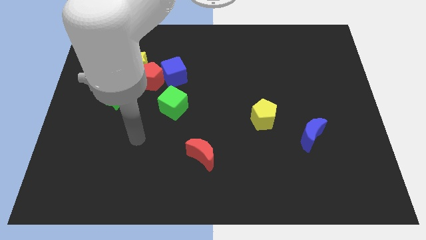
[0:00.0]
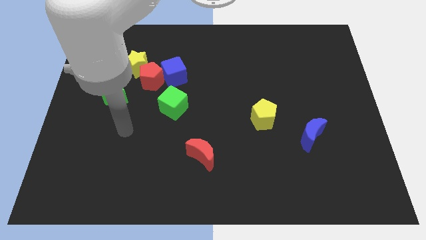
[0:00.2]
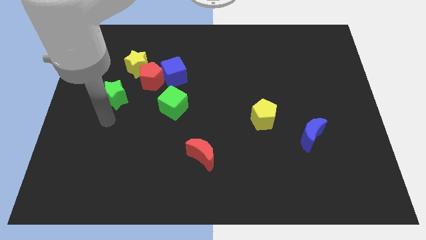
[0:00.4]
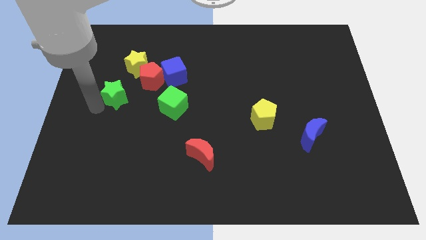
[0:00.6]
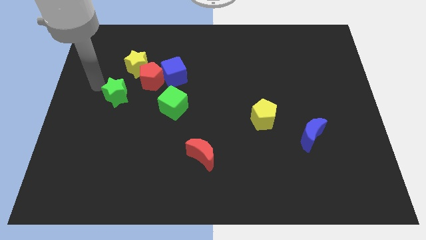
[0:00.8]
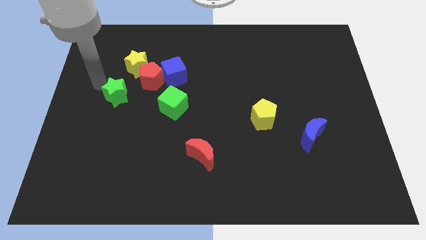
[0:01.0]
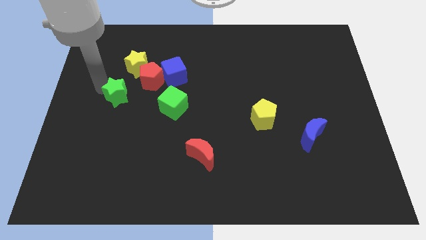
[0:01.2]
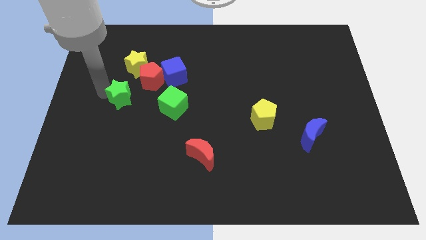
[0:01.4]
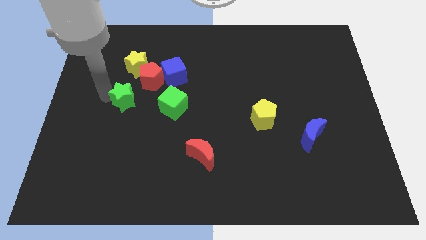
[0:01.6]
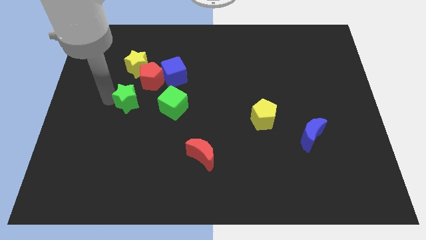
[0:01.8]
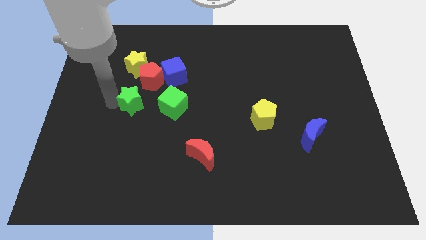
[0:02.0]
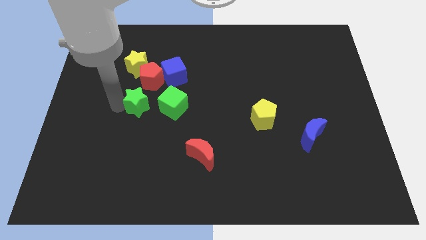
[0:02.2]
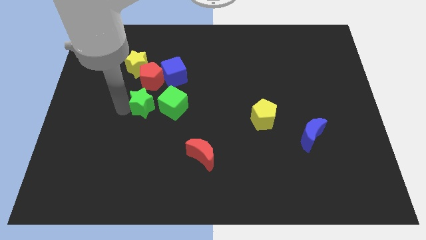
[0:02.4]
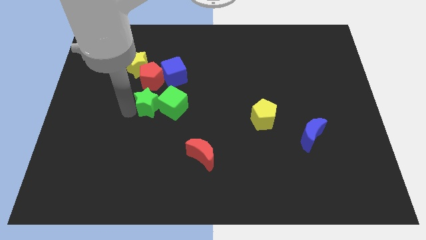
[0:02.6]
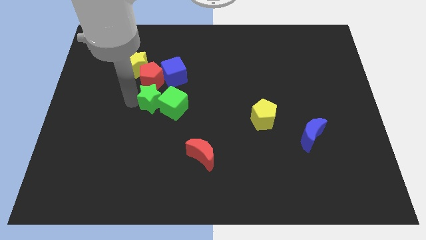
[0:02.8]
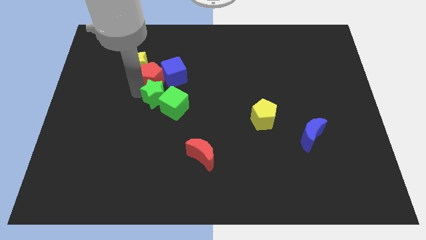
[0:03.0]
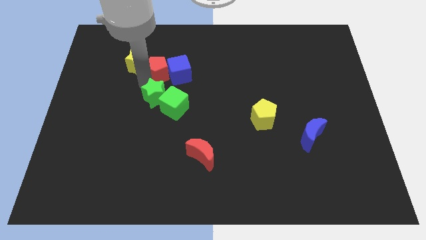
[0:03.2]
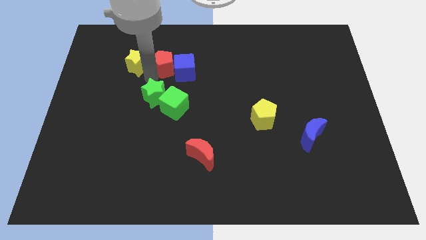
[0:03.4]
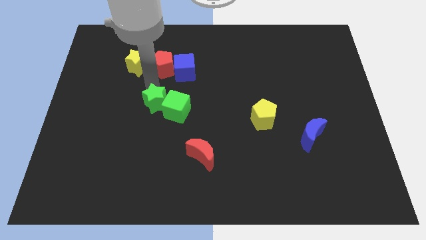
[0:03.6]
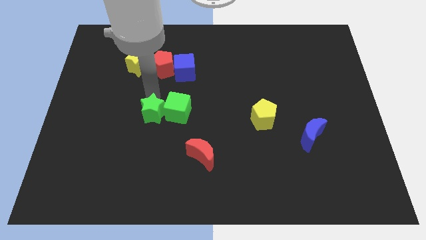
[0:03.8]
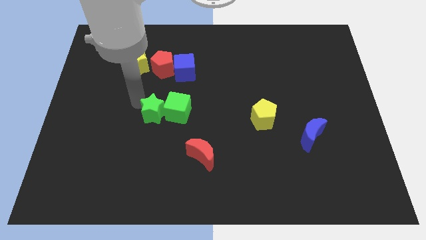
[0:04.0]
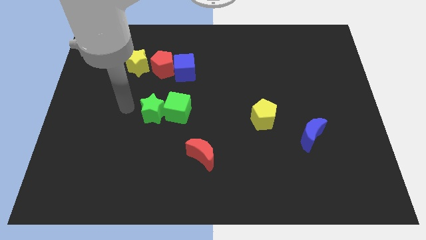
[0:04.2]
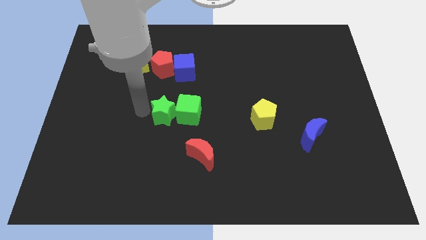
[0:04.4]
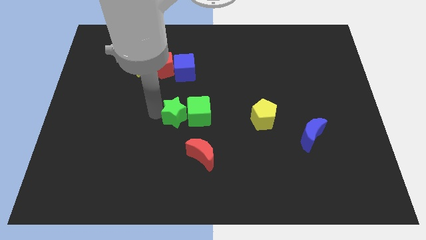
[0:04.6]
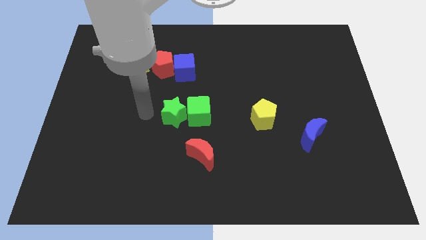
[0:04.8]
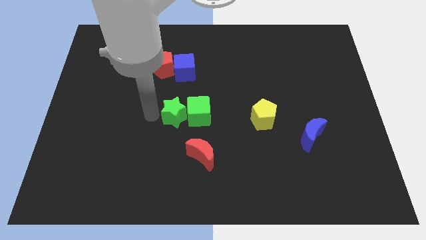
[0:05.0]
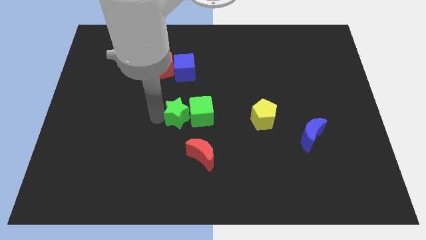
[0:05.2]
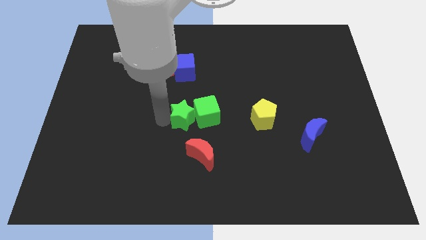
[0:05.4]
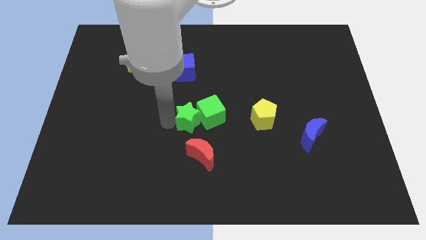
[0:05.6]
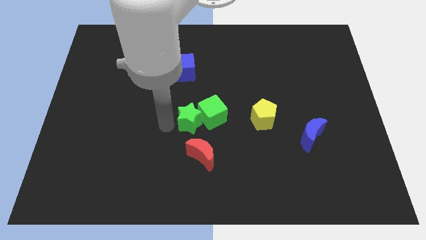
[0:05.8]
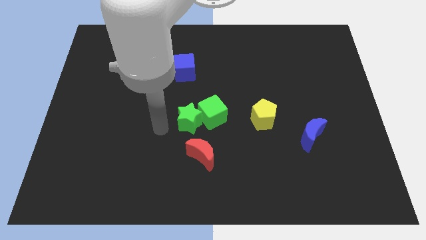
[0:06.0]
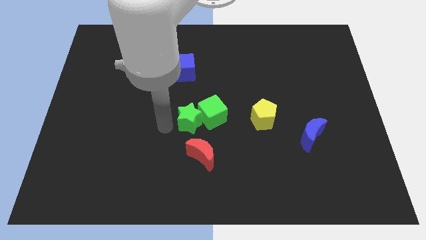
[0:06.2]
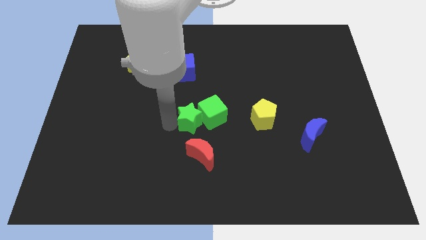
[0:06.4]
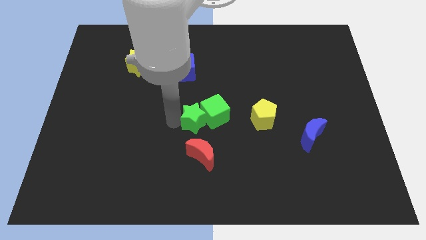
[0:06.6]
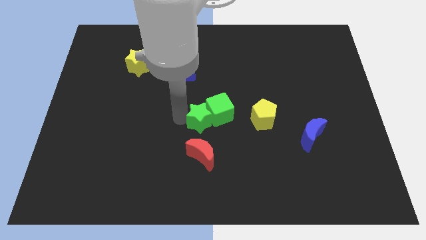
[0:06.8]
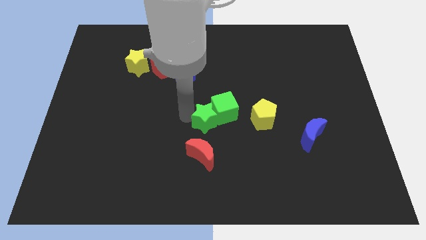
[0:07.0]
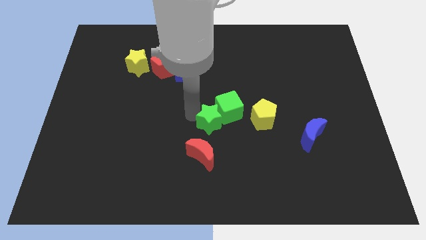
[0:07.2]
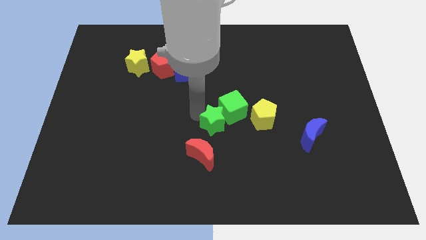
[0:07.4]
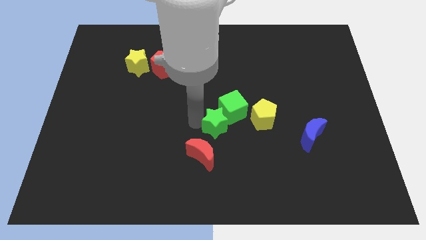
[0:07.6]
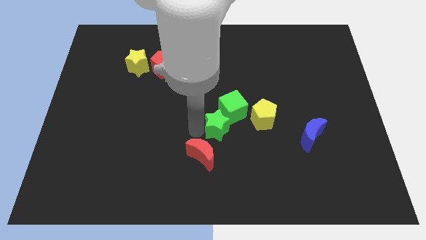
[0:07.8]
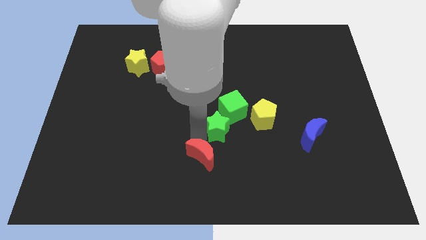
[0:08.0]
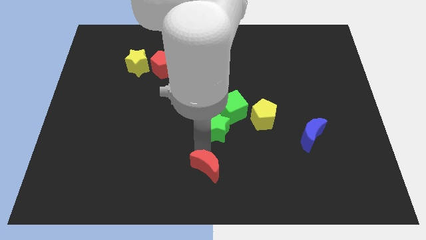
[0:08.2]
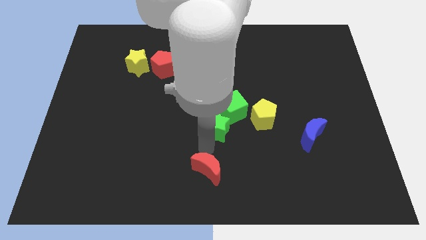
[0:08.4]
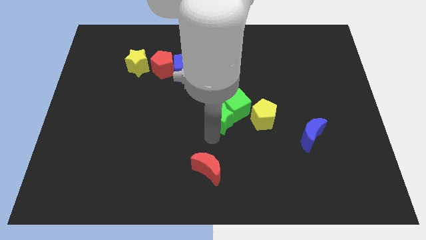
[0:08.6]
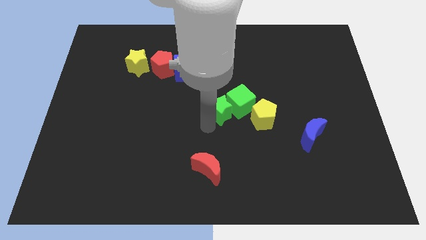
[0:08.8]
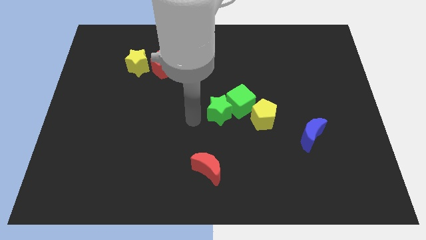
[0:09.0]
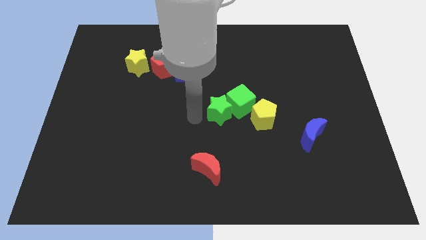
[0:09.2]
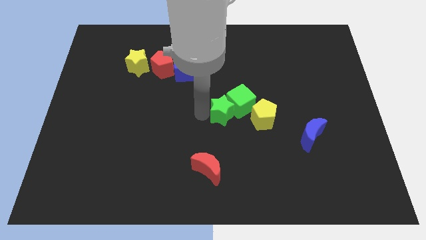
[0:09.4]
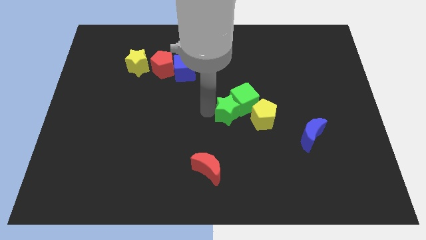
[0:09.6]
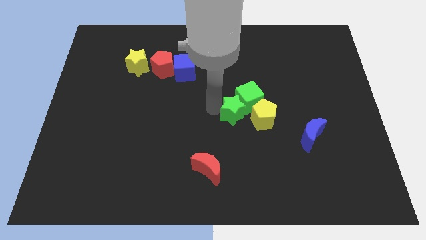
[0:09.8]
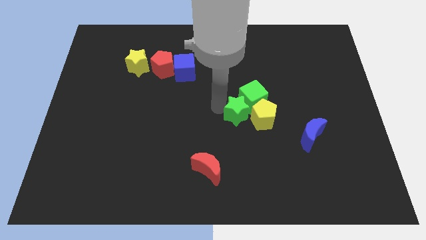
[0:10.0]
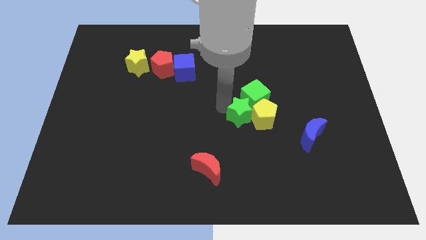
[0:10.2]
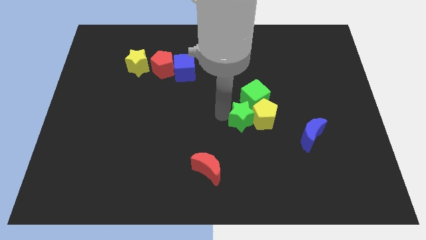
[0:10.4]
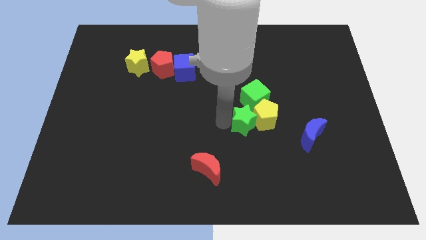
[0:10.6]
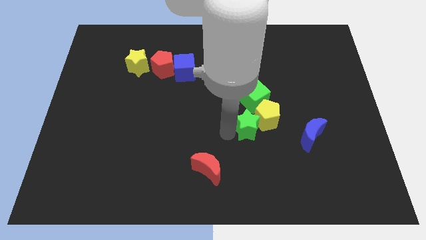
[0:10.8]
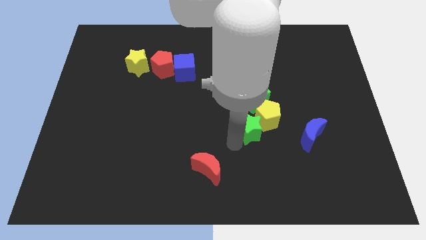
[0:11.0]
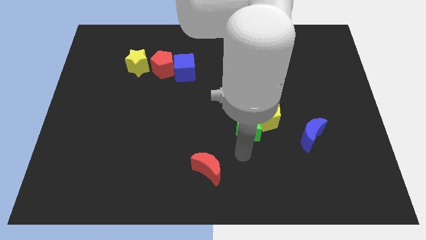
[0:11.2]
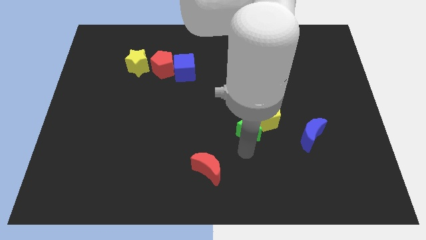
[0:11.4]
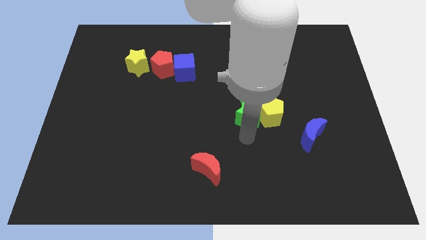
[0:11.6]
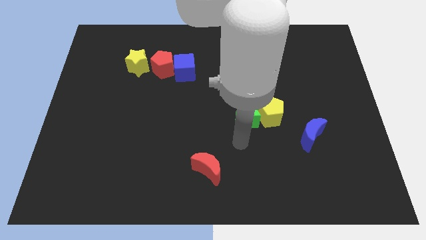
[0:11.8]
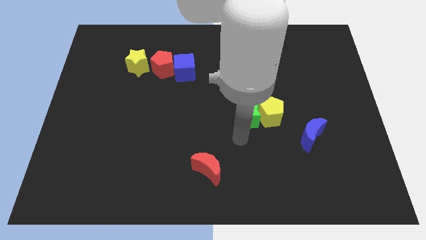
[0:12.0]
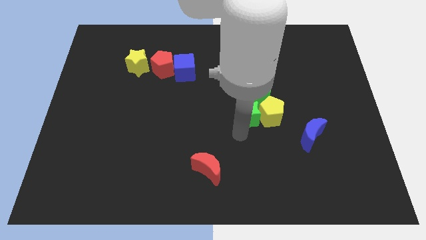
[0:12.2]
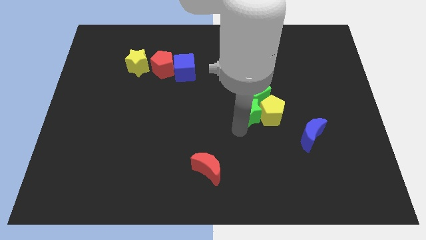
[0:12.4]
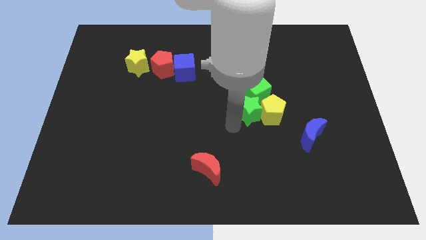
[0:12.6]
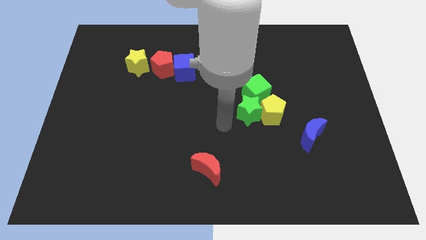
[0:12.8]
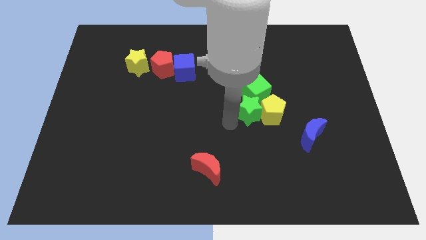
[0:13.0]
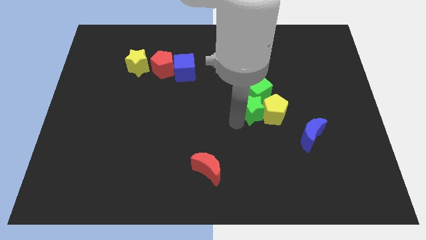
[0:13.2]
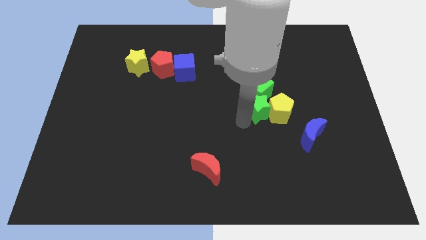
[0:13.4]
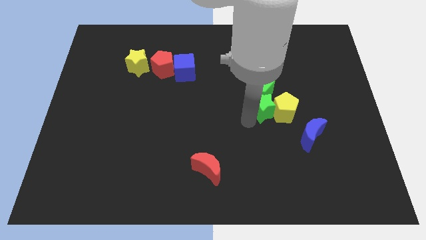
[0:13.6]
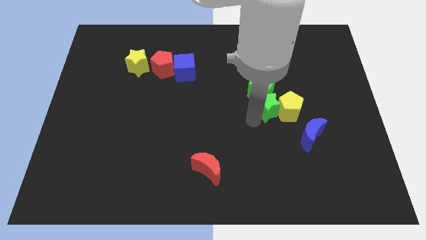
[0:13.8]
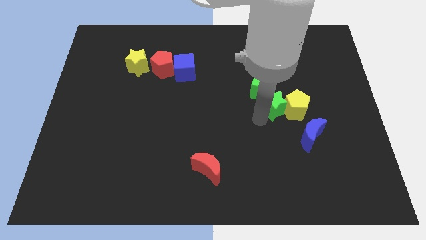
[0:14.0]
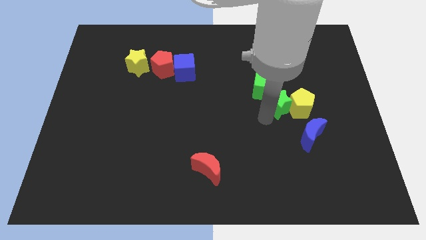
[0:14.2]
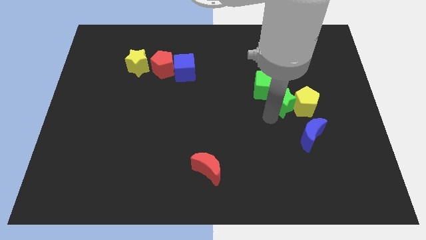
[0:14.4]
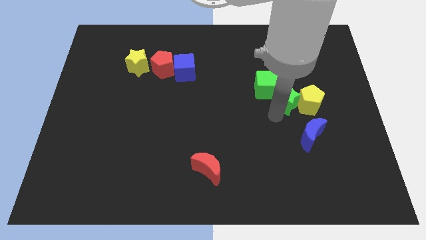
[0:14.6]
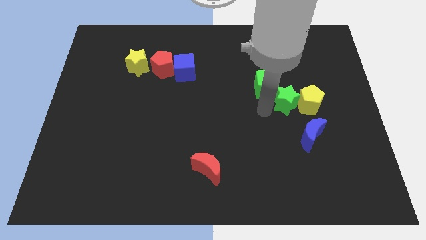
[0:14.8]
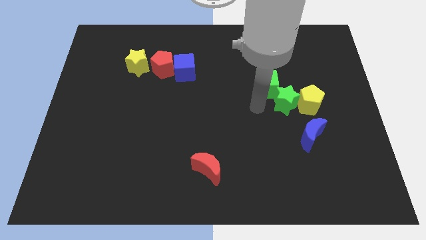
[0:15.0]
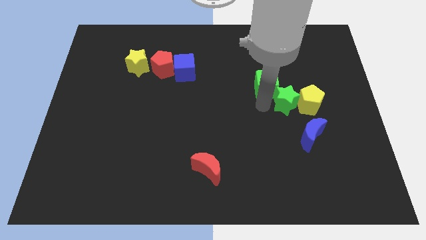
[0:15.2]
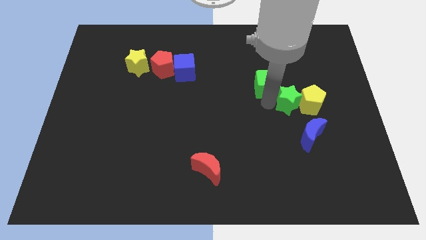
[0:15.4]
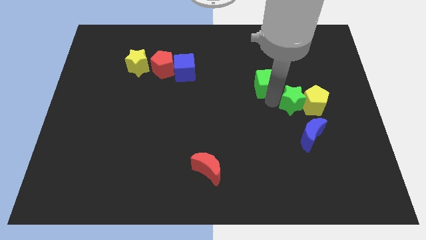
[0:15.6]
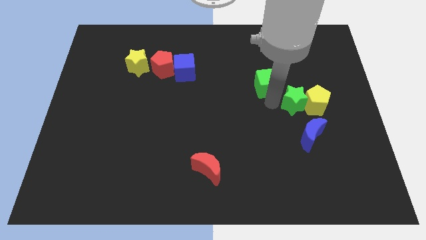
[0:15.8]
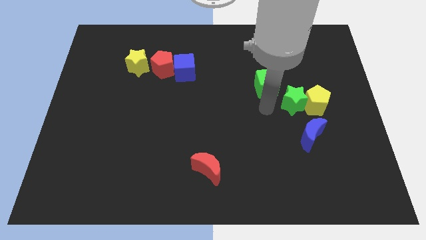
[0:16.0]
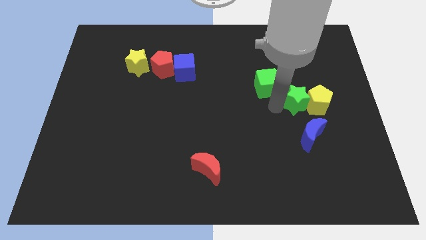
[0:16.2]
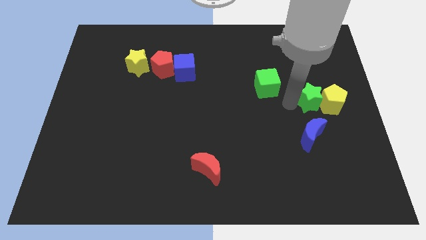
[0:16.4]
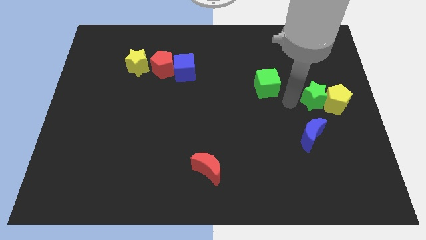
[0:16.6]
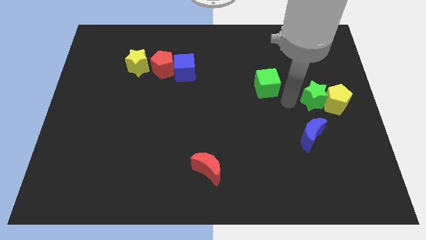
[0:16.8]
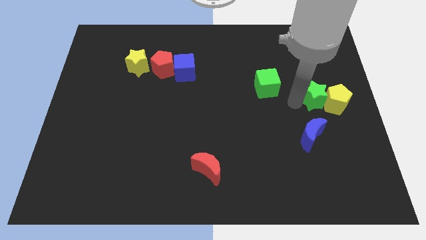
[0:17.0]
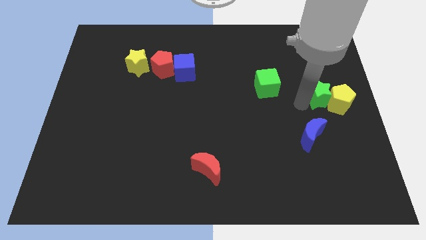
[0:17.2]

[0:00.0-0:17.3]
put the green star to the center right
